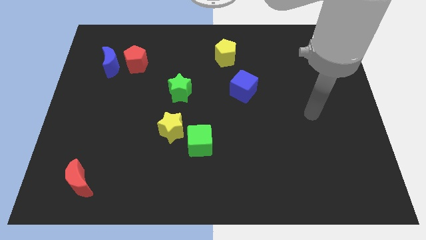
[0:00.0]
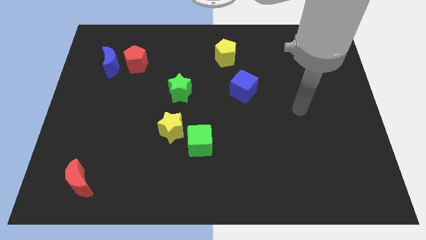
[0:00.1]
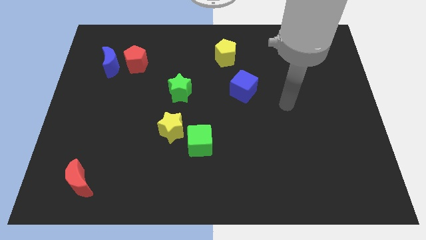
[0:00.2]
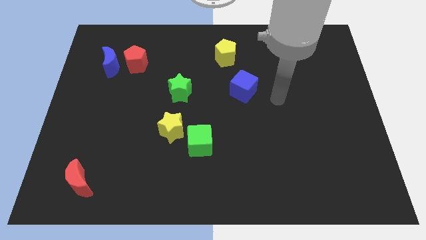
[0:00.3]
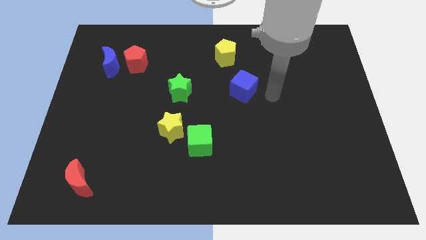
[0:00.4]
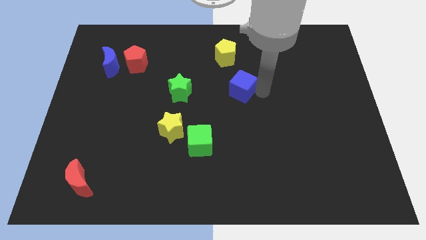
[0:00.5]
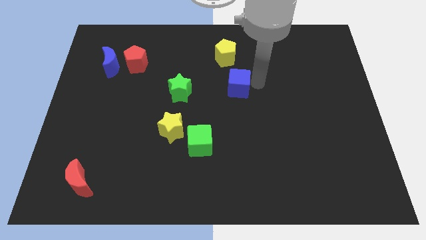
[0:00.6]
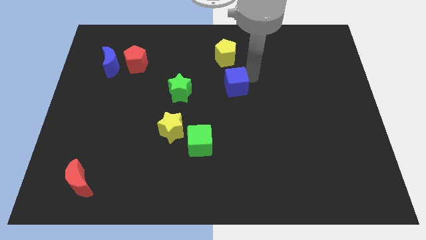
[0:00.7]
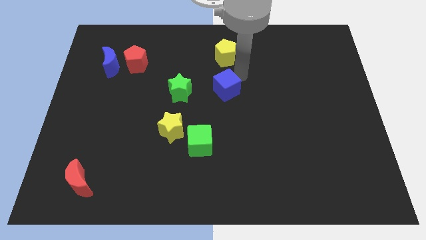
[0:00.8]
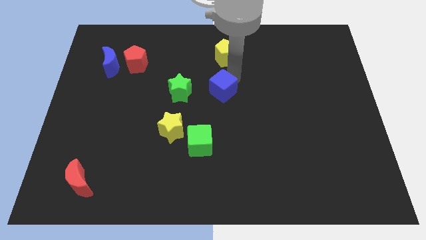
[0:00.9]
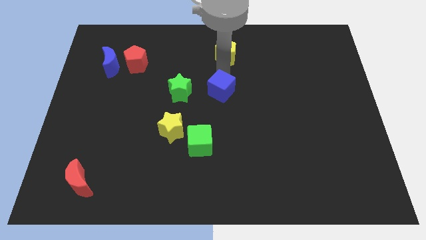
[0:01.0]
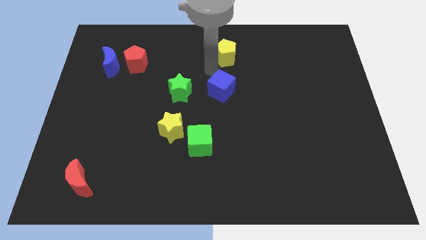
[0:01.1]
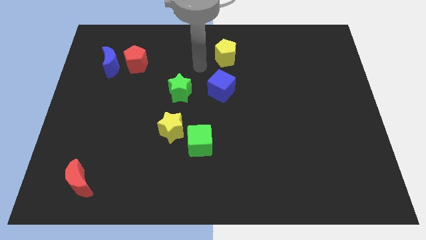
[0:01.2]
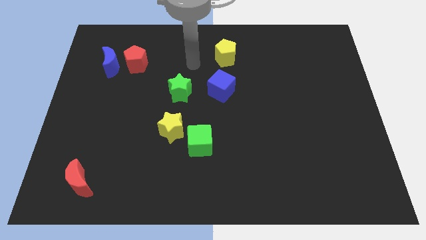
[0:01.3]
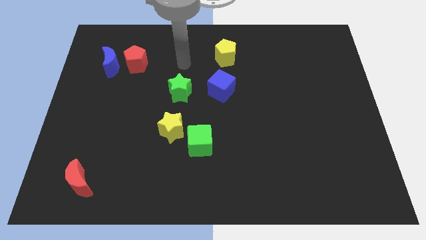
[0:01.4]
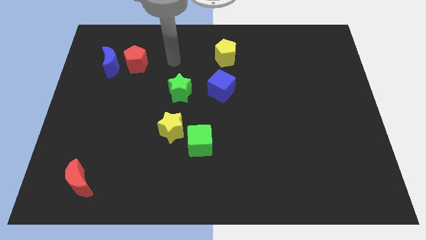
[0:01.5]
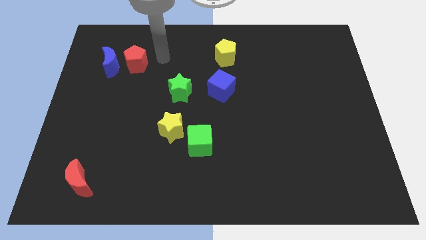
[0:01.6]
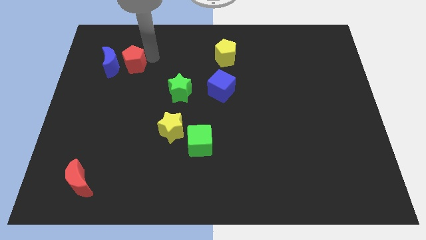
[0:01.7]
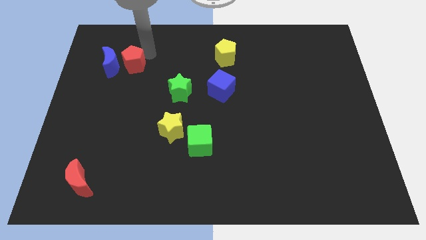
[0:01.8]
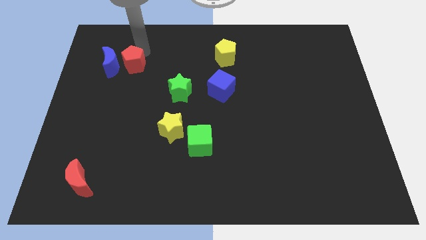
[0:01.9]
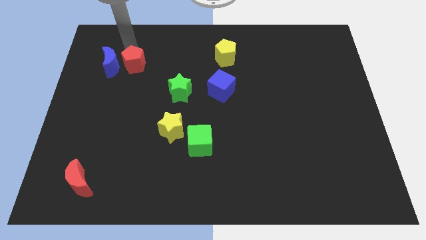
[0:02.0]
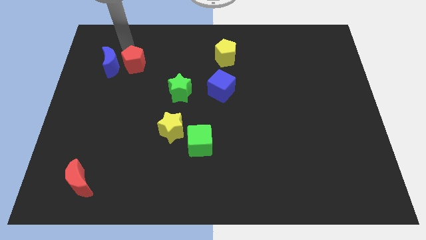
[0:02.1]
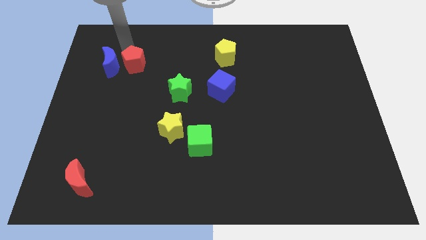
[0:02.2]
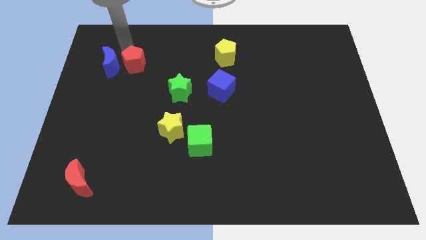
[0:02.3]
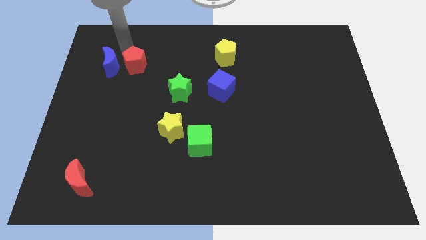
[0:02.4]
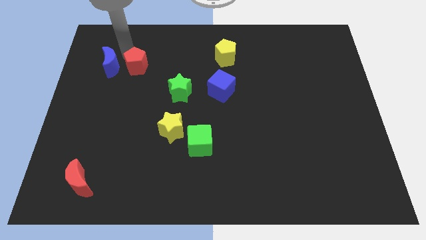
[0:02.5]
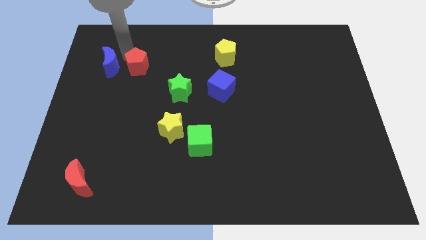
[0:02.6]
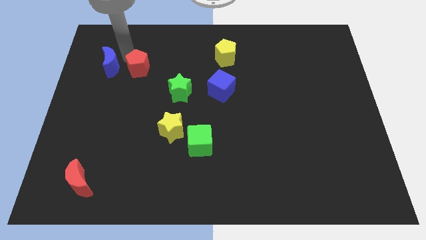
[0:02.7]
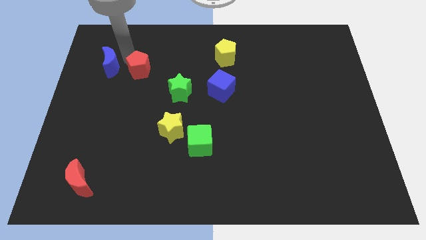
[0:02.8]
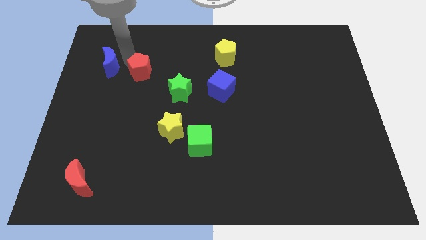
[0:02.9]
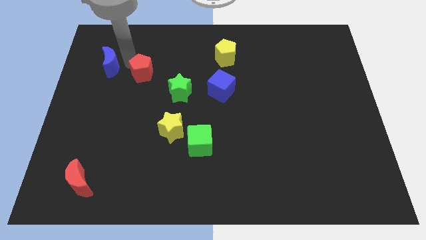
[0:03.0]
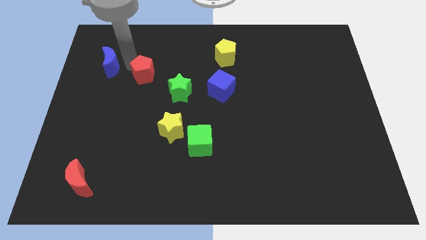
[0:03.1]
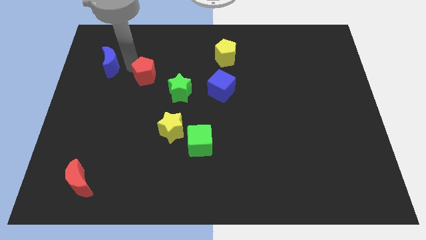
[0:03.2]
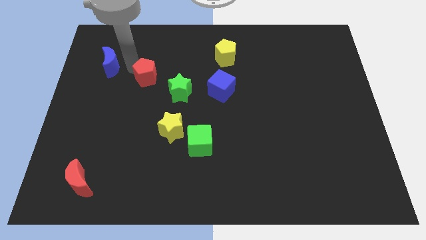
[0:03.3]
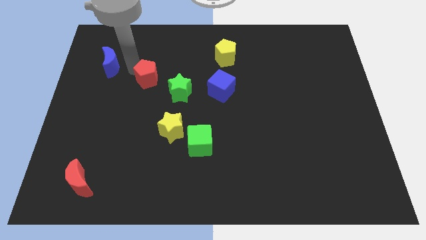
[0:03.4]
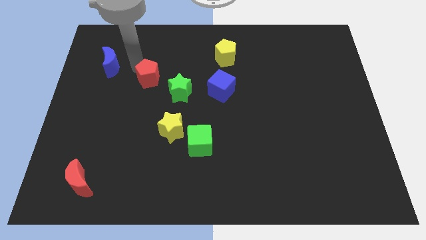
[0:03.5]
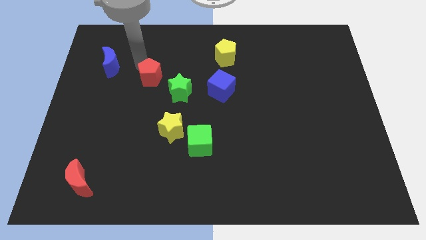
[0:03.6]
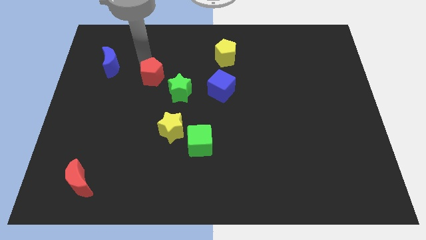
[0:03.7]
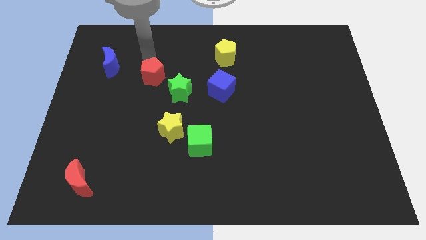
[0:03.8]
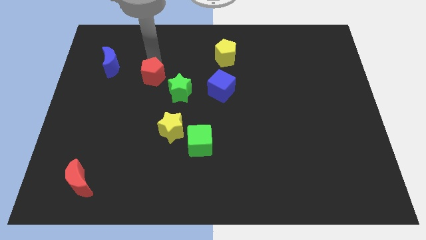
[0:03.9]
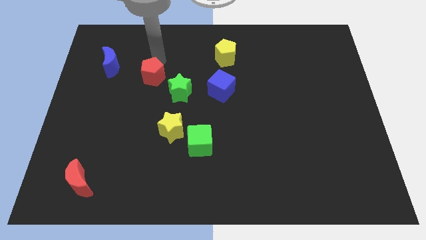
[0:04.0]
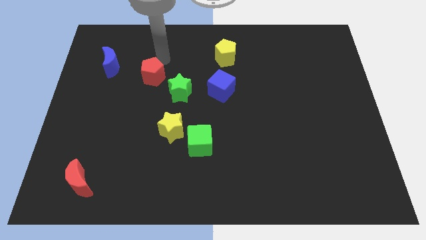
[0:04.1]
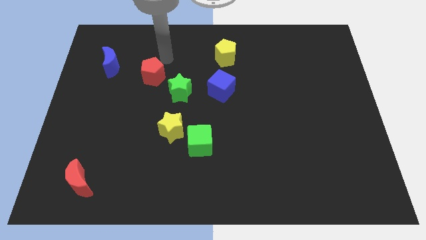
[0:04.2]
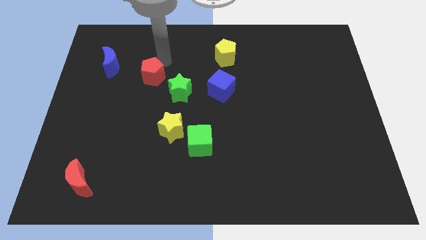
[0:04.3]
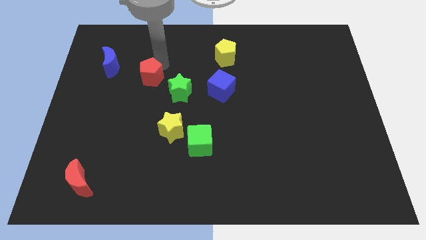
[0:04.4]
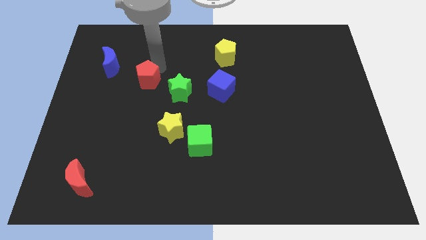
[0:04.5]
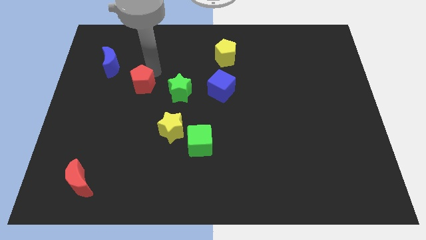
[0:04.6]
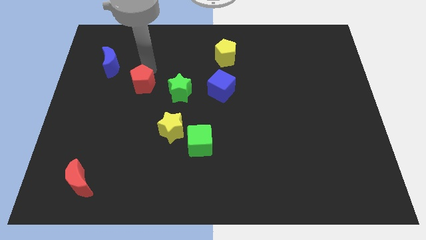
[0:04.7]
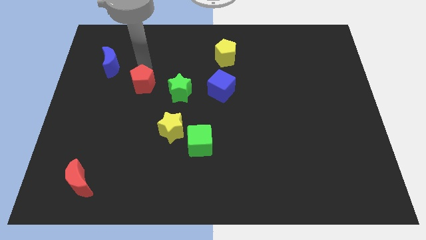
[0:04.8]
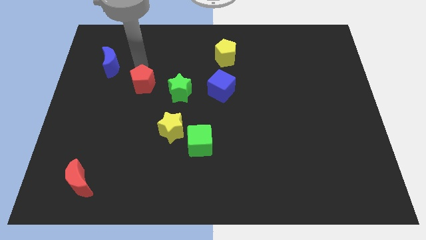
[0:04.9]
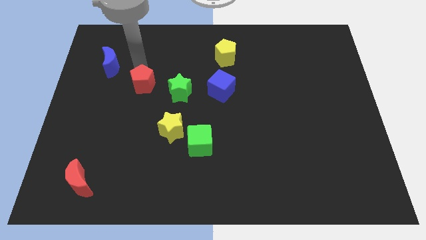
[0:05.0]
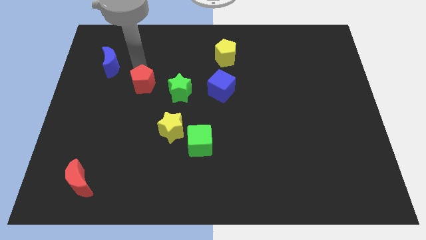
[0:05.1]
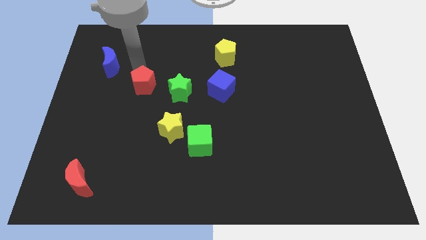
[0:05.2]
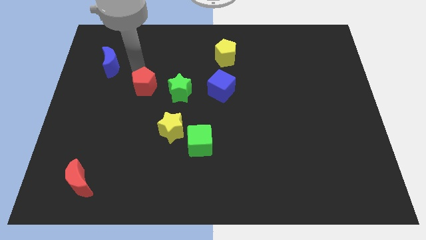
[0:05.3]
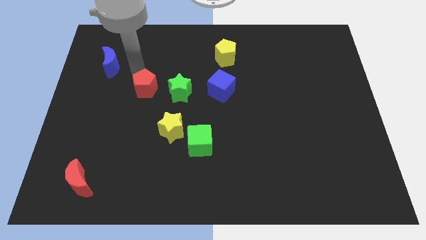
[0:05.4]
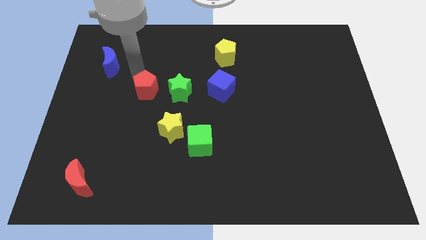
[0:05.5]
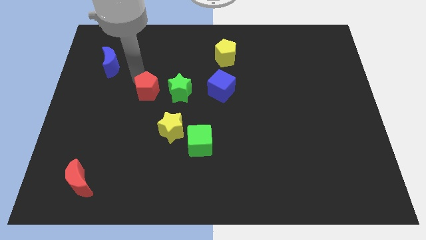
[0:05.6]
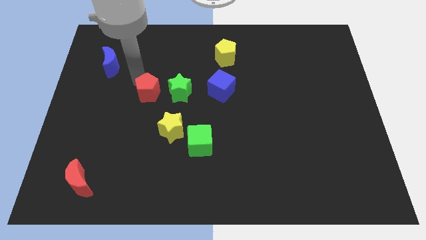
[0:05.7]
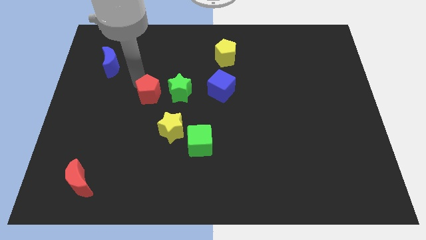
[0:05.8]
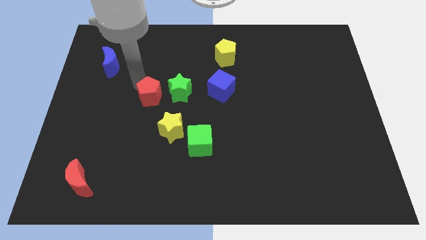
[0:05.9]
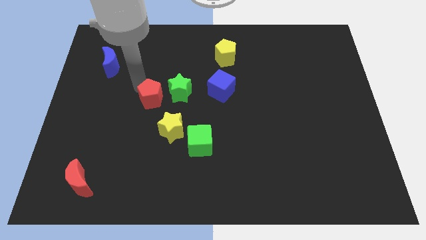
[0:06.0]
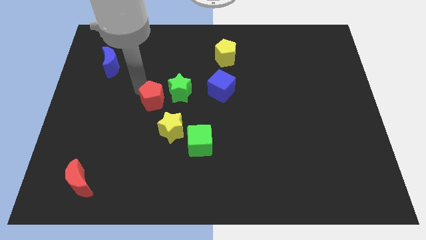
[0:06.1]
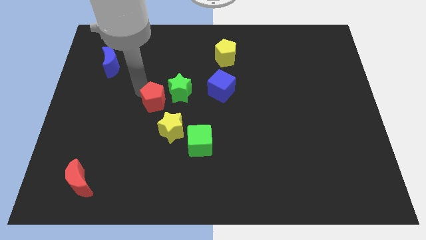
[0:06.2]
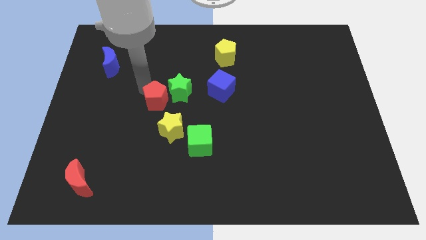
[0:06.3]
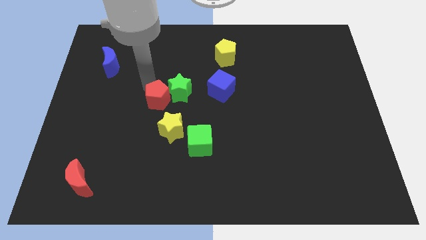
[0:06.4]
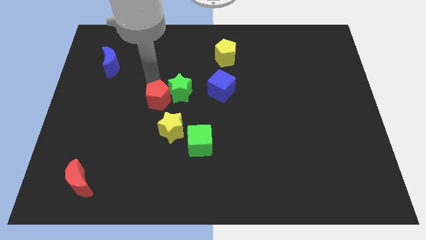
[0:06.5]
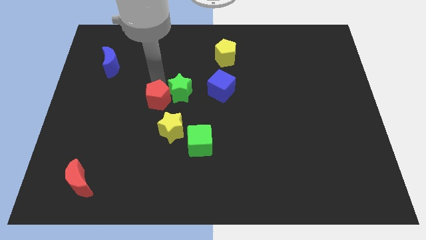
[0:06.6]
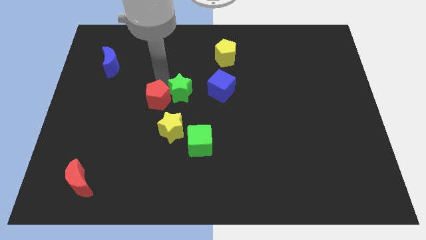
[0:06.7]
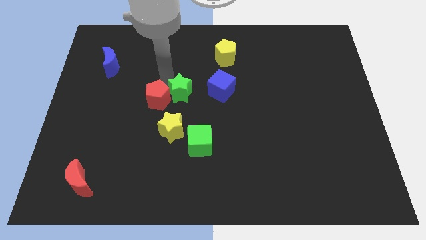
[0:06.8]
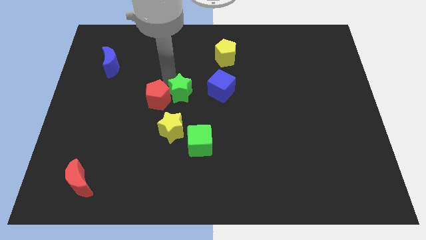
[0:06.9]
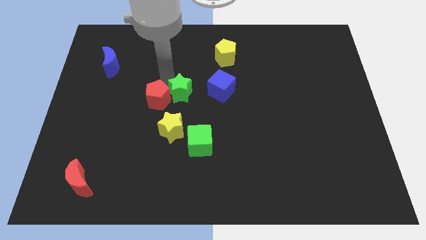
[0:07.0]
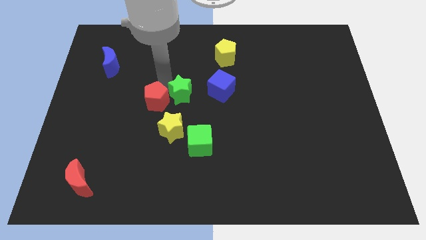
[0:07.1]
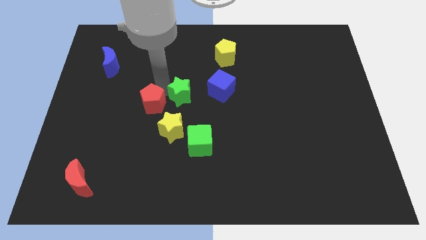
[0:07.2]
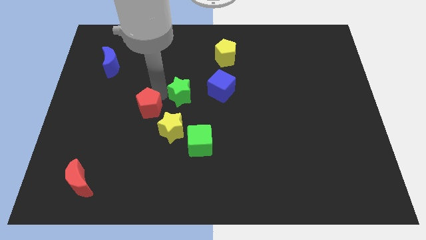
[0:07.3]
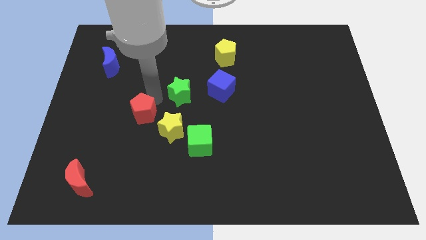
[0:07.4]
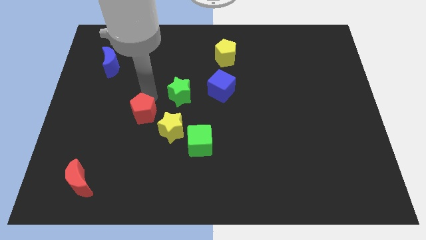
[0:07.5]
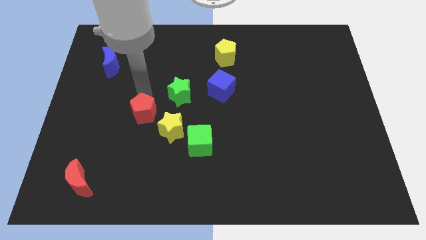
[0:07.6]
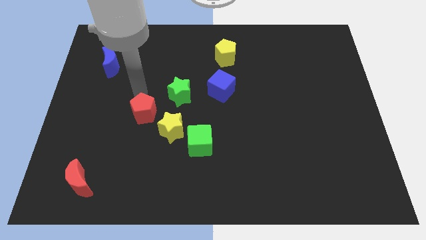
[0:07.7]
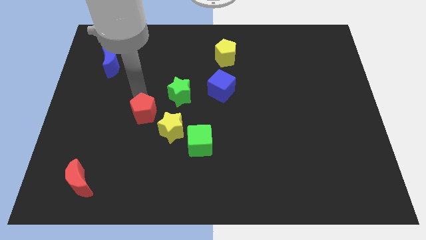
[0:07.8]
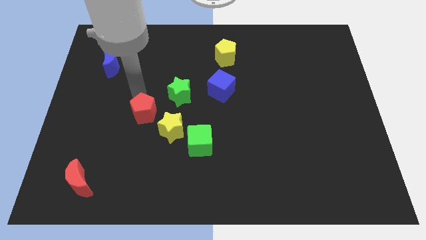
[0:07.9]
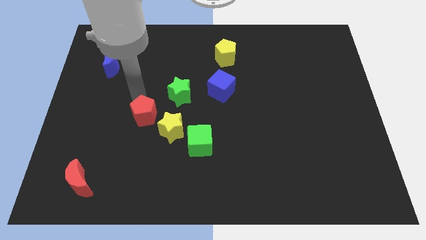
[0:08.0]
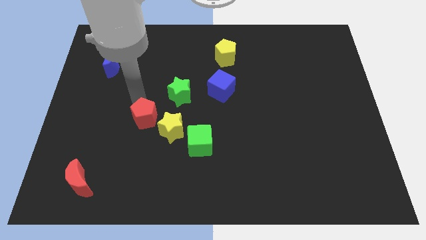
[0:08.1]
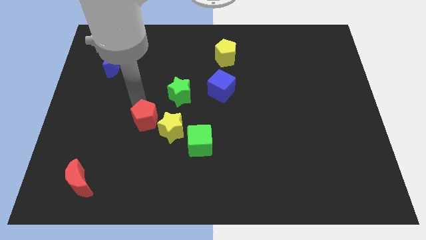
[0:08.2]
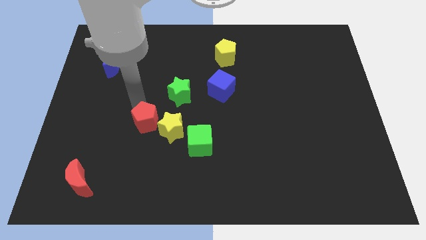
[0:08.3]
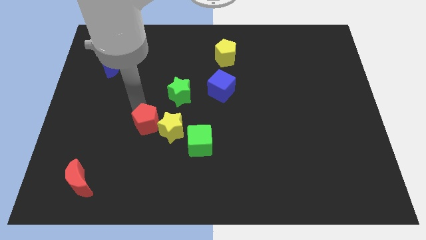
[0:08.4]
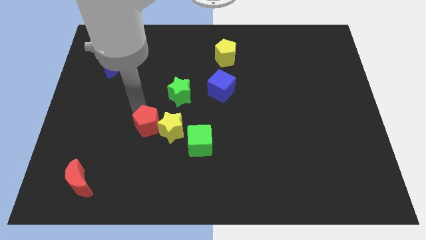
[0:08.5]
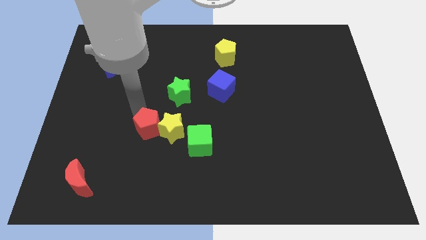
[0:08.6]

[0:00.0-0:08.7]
slide the red pentagon to the bottom left of the yellow star
